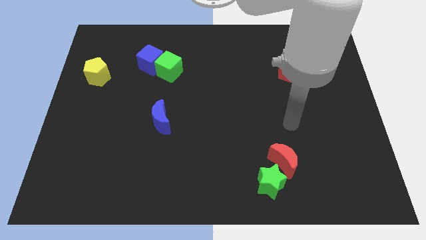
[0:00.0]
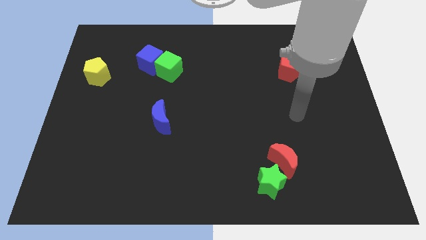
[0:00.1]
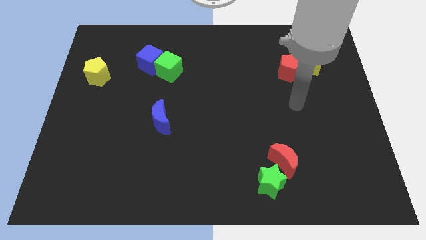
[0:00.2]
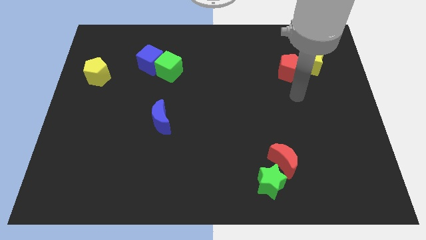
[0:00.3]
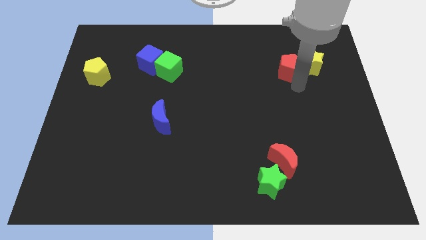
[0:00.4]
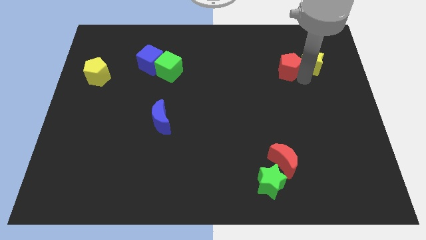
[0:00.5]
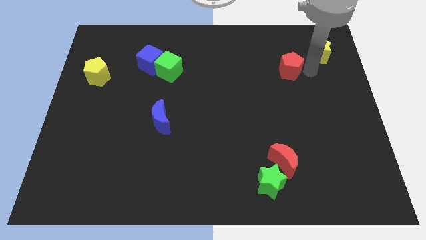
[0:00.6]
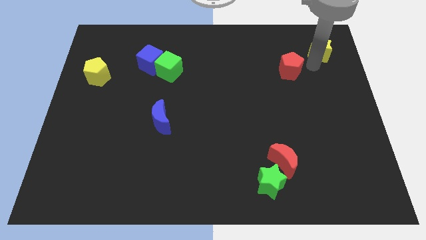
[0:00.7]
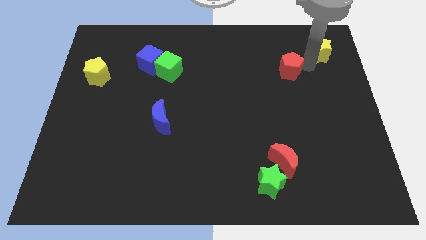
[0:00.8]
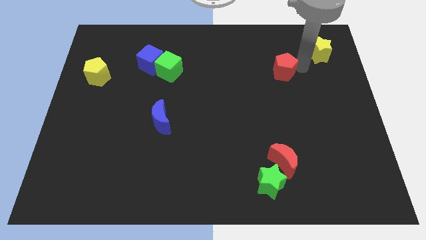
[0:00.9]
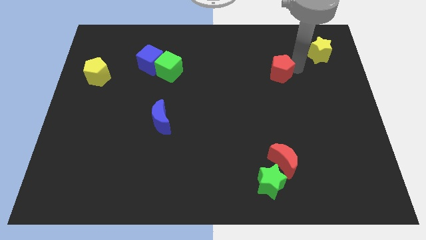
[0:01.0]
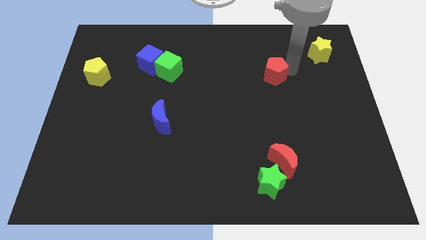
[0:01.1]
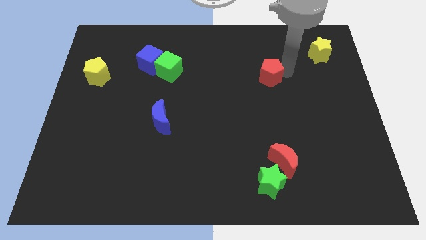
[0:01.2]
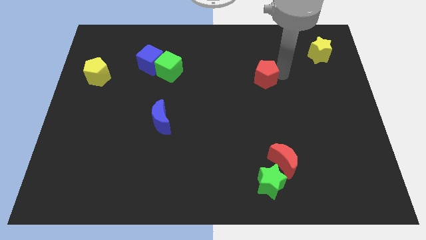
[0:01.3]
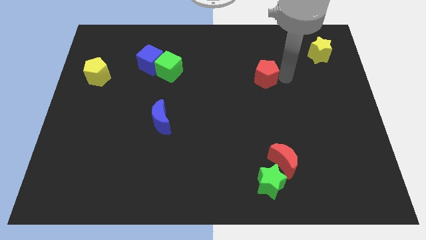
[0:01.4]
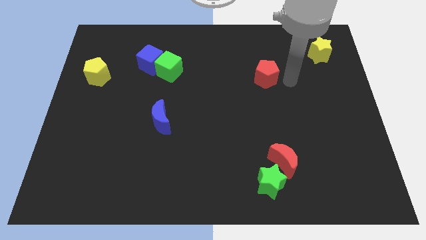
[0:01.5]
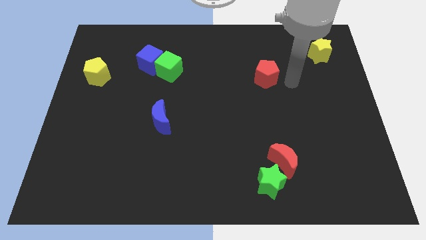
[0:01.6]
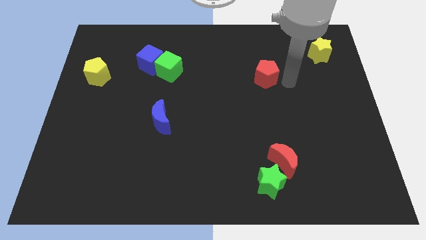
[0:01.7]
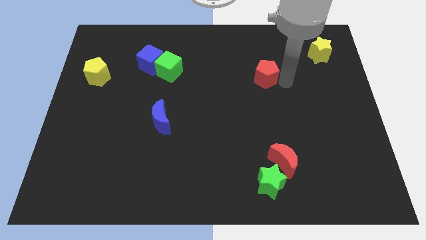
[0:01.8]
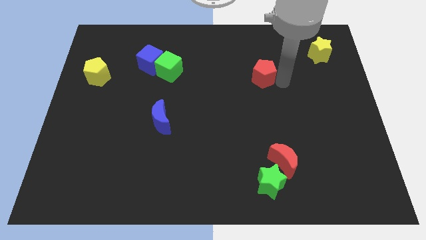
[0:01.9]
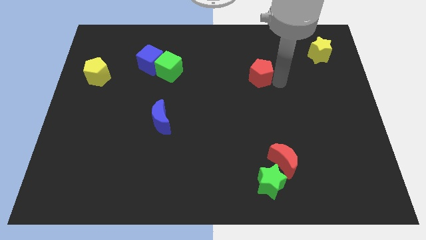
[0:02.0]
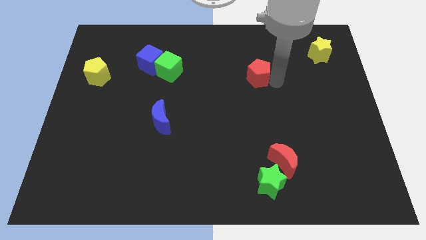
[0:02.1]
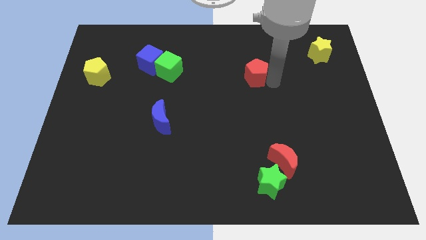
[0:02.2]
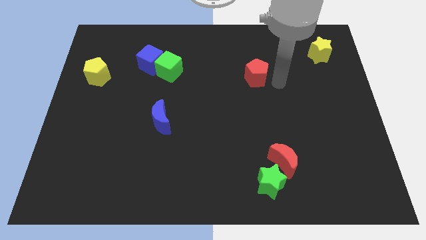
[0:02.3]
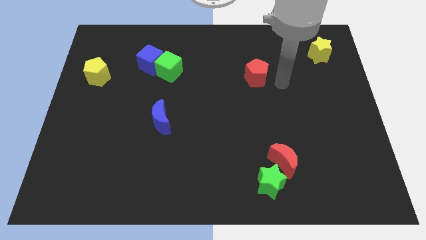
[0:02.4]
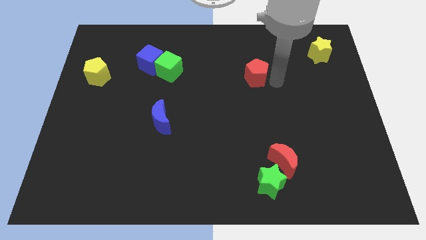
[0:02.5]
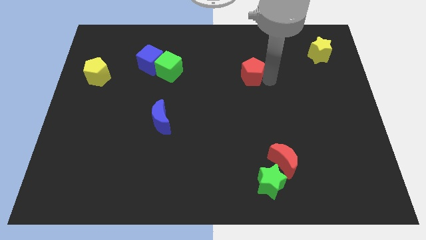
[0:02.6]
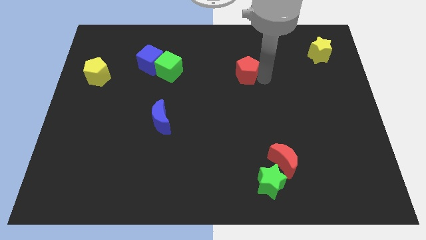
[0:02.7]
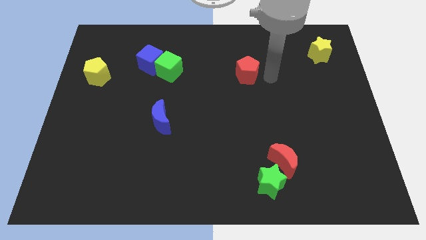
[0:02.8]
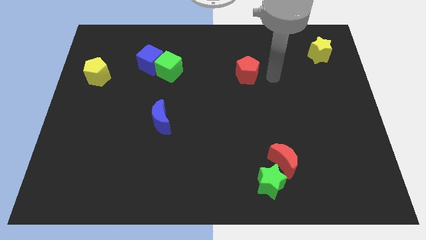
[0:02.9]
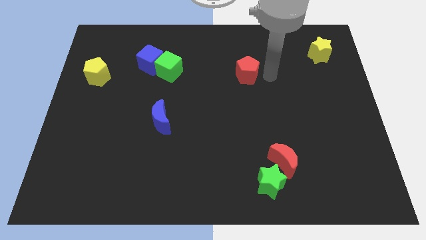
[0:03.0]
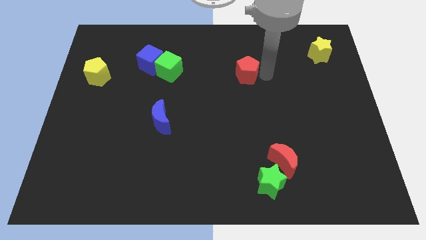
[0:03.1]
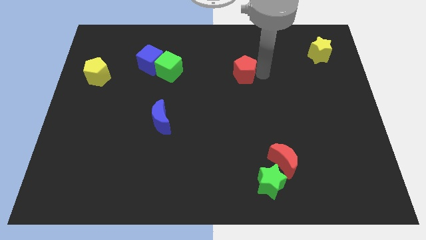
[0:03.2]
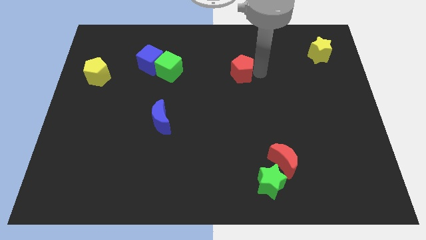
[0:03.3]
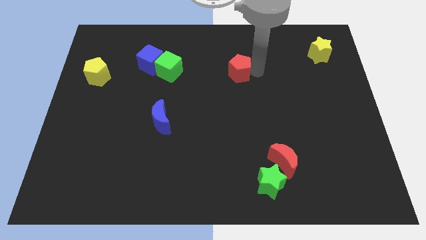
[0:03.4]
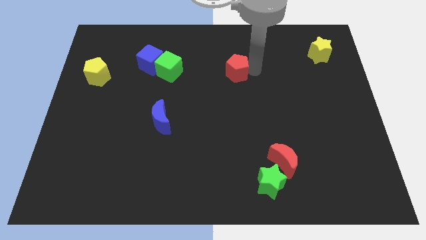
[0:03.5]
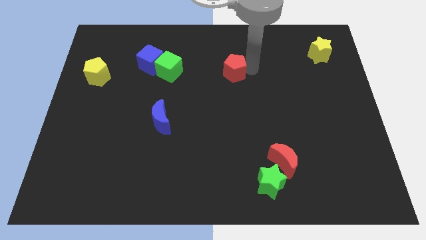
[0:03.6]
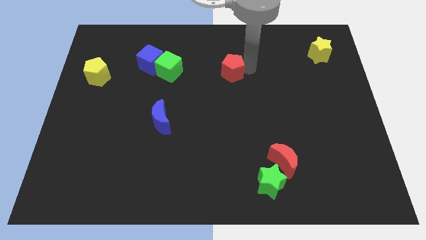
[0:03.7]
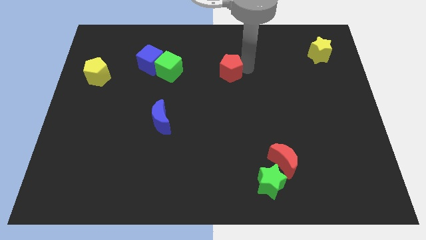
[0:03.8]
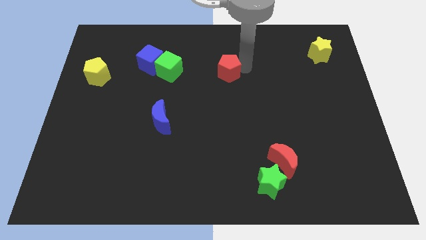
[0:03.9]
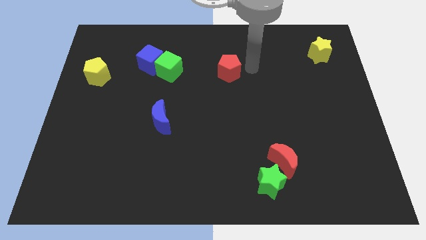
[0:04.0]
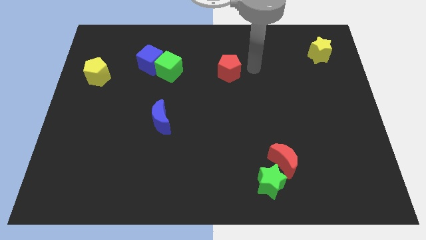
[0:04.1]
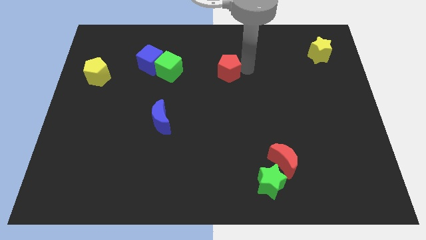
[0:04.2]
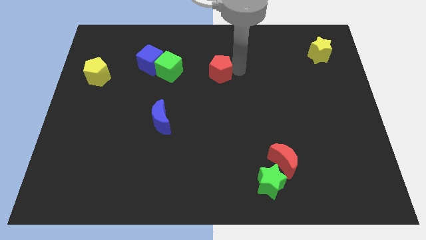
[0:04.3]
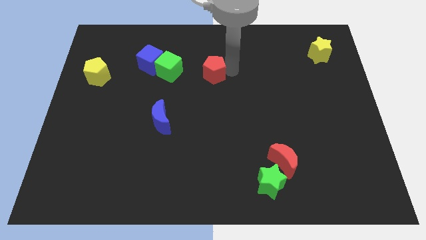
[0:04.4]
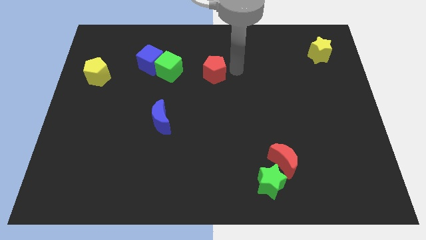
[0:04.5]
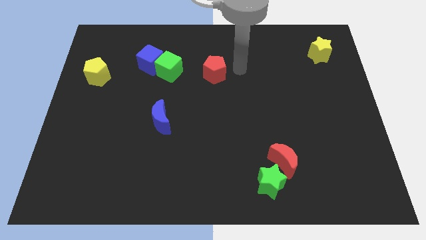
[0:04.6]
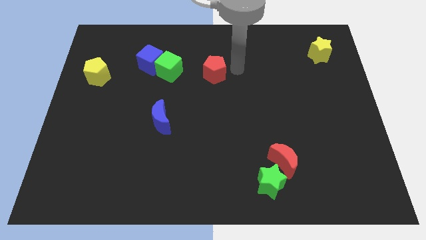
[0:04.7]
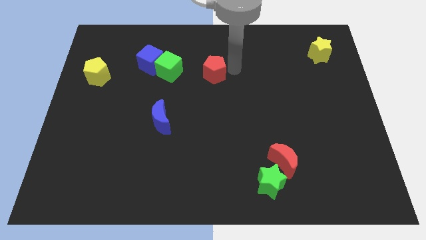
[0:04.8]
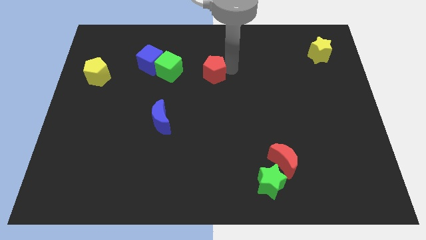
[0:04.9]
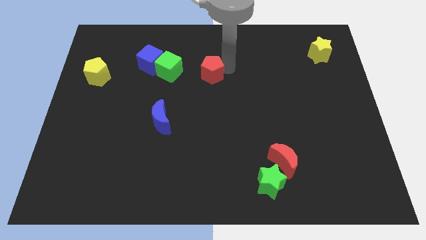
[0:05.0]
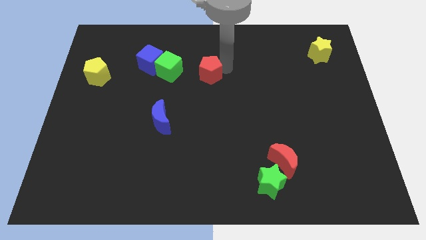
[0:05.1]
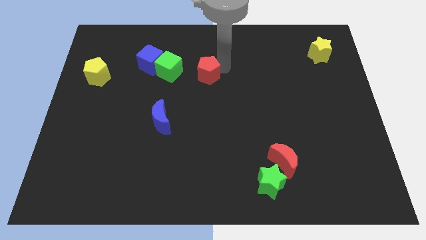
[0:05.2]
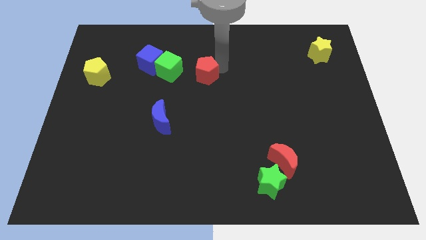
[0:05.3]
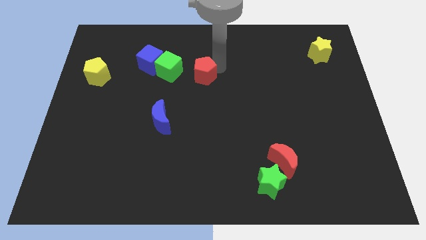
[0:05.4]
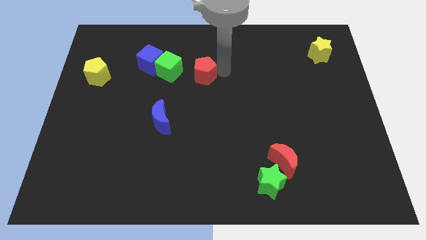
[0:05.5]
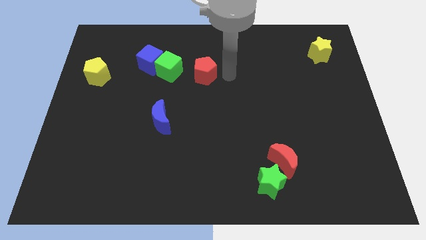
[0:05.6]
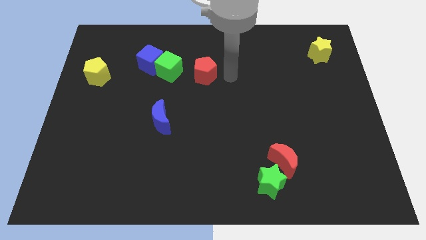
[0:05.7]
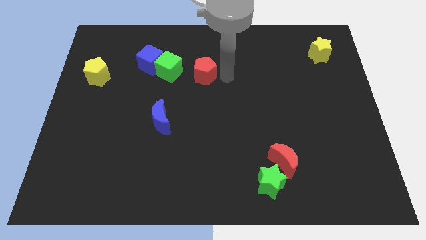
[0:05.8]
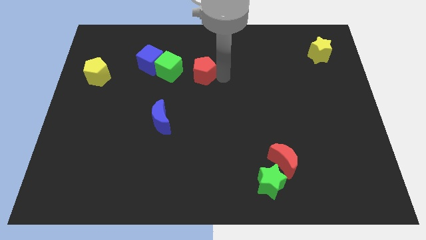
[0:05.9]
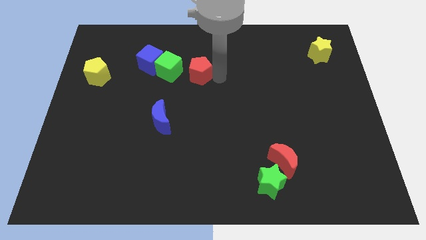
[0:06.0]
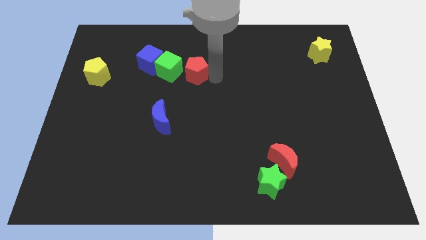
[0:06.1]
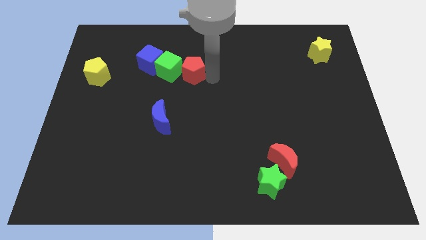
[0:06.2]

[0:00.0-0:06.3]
move the red pentagon next to the green cube

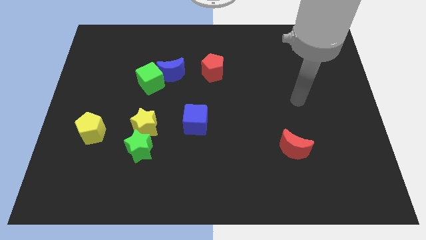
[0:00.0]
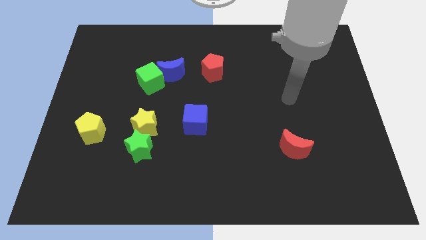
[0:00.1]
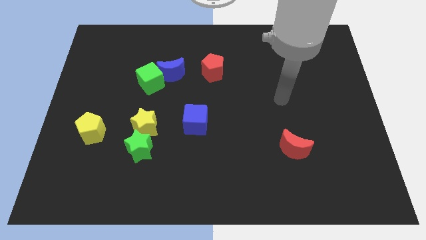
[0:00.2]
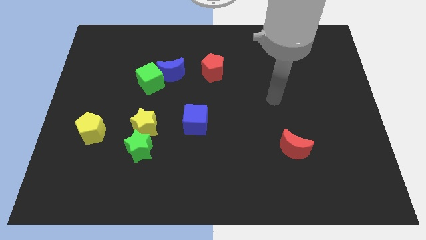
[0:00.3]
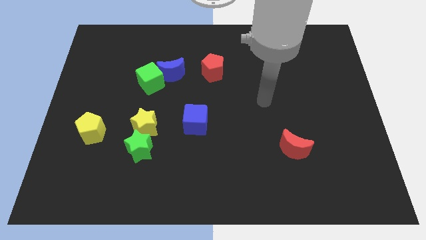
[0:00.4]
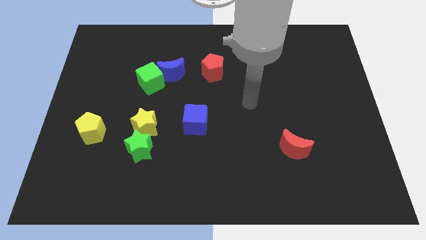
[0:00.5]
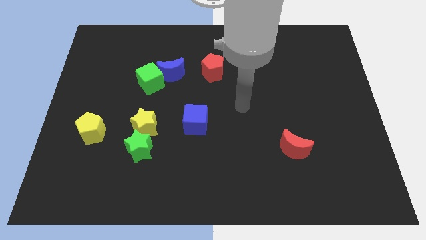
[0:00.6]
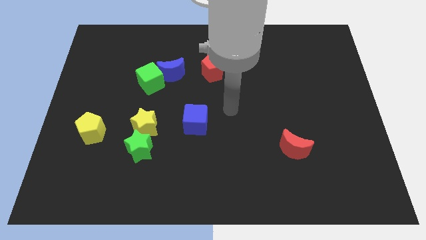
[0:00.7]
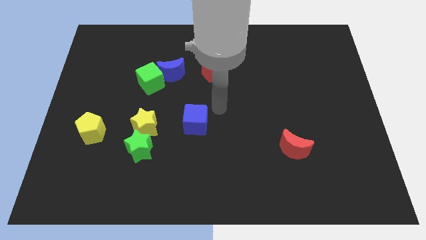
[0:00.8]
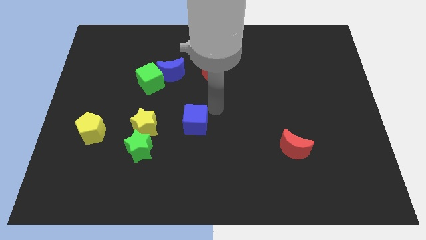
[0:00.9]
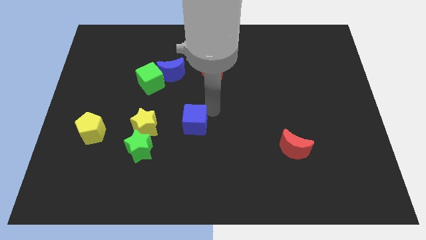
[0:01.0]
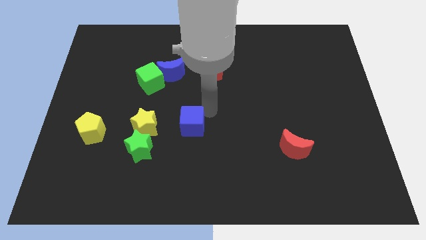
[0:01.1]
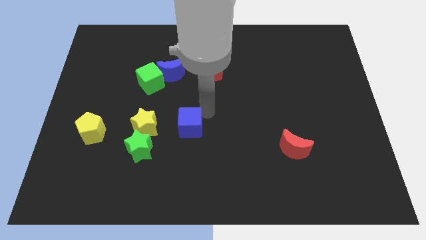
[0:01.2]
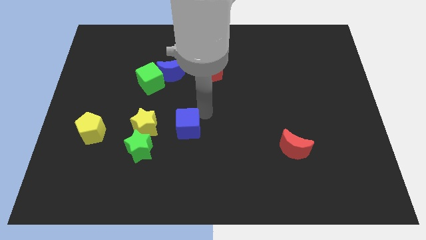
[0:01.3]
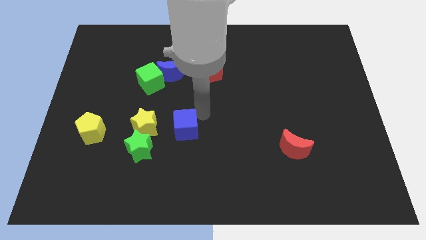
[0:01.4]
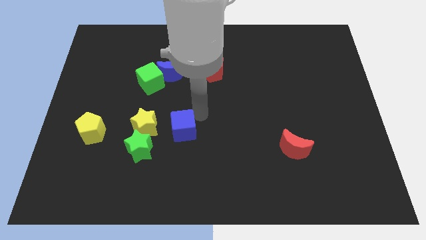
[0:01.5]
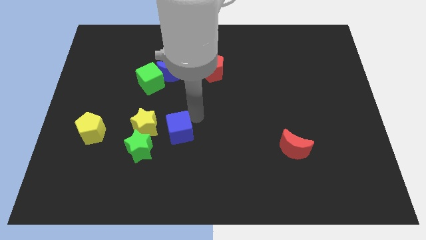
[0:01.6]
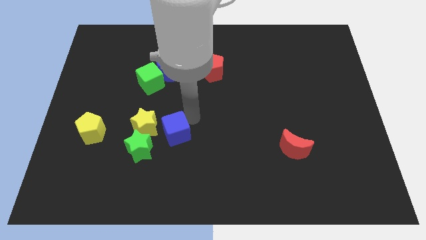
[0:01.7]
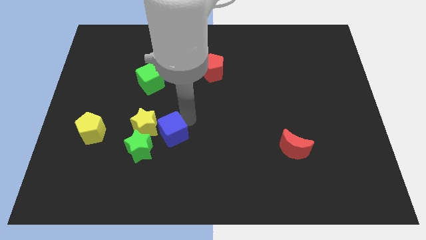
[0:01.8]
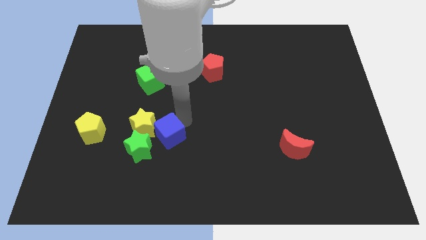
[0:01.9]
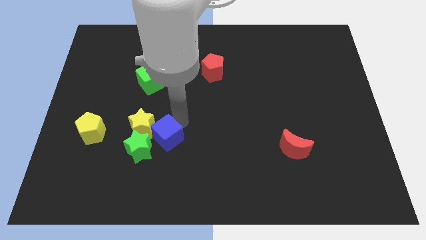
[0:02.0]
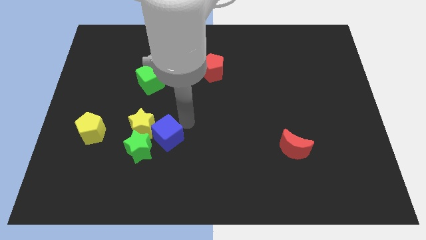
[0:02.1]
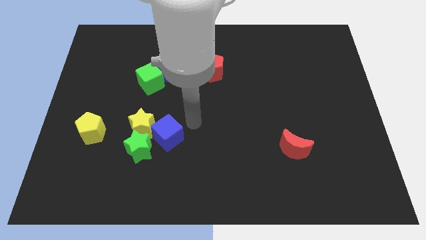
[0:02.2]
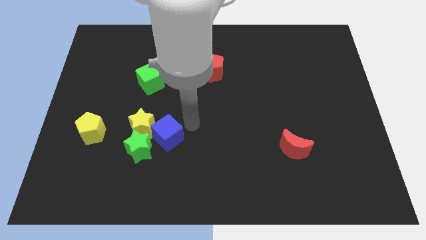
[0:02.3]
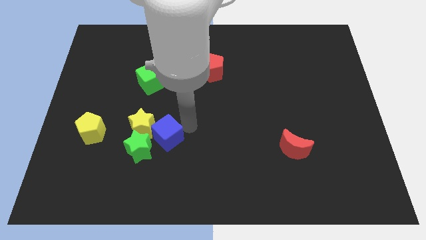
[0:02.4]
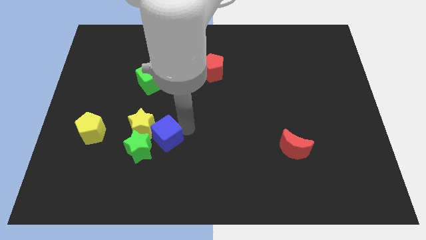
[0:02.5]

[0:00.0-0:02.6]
put the blue cube next to the green star
